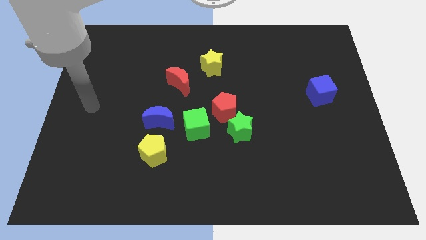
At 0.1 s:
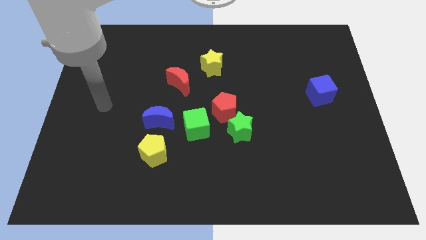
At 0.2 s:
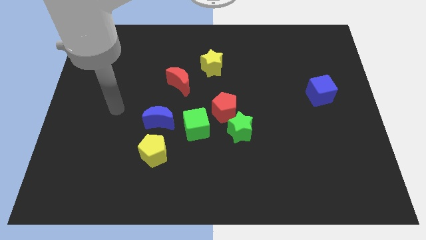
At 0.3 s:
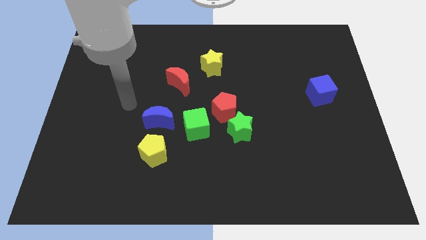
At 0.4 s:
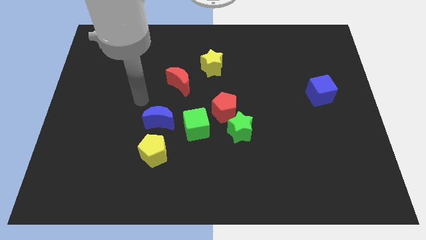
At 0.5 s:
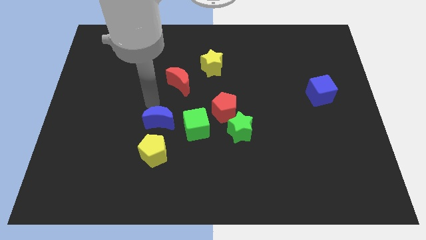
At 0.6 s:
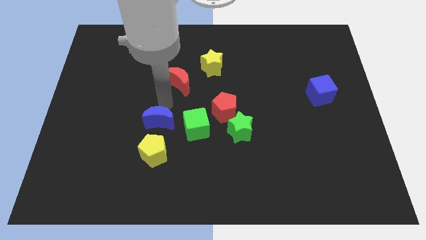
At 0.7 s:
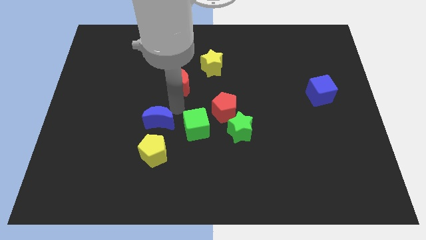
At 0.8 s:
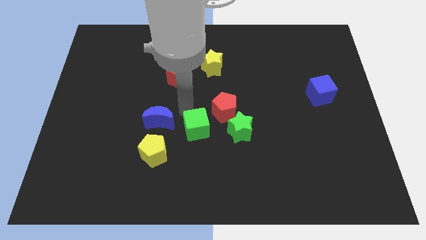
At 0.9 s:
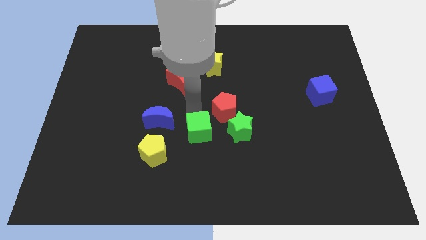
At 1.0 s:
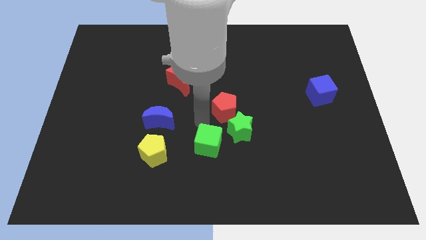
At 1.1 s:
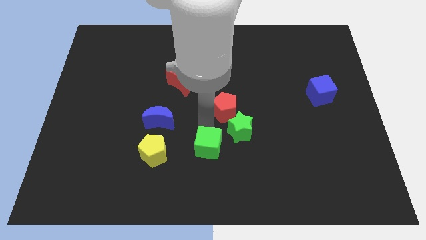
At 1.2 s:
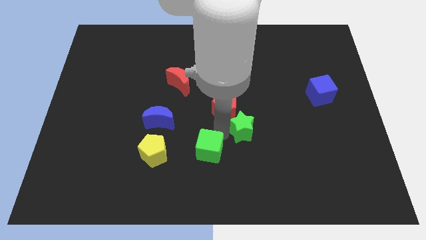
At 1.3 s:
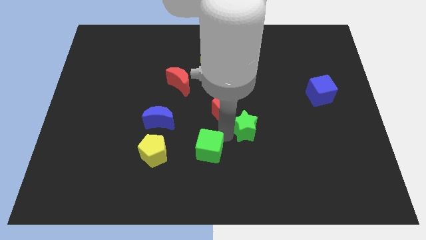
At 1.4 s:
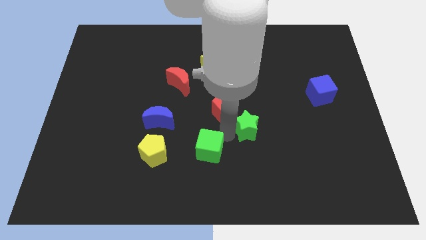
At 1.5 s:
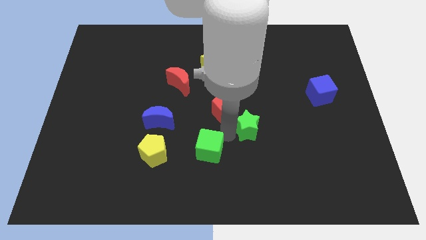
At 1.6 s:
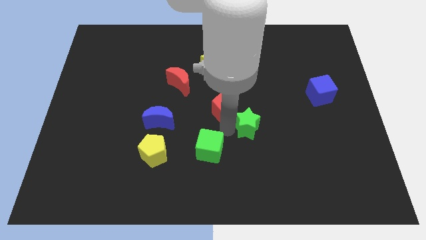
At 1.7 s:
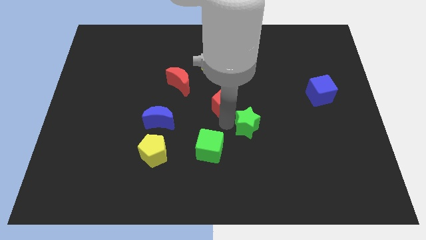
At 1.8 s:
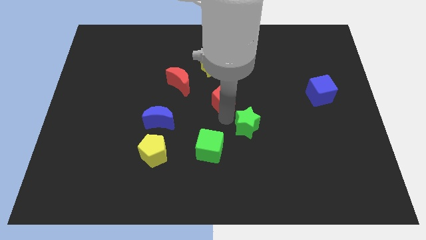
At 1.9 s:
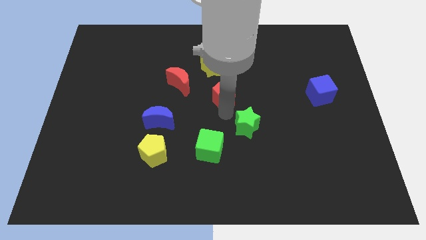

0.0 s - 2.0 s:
pull the red pentagon apart from the green star and green cube

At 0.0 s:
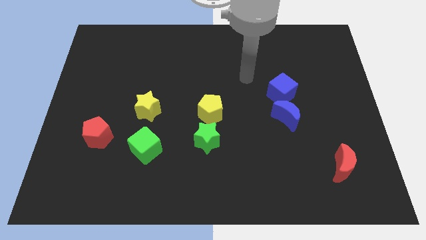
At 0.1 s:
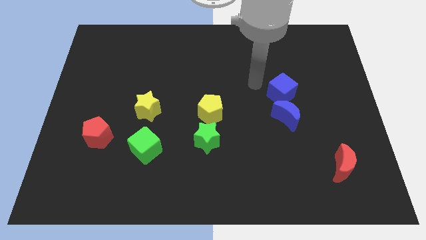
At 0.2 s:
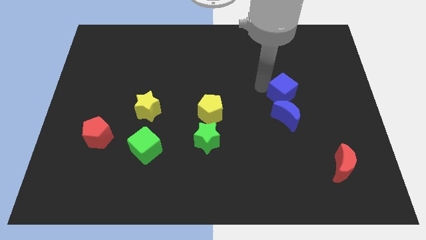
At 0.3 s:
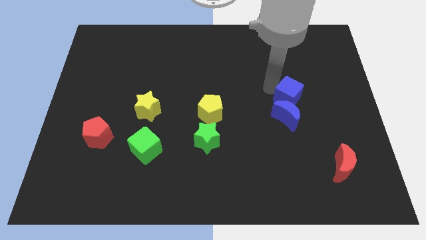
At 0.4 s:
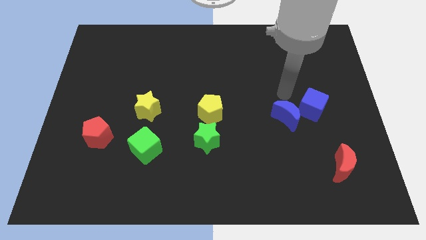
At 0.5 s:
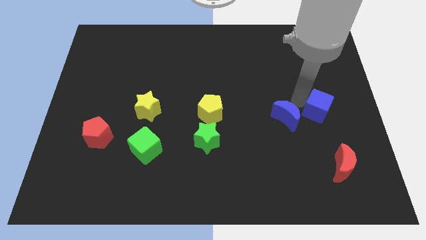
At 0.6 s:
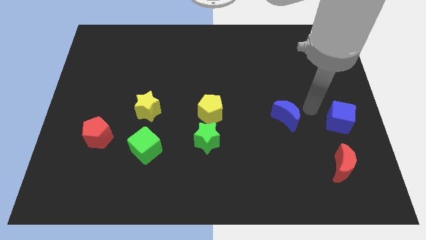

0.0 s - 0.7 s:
separate the blue moon from the blue cube

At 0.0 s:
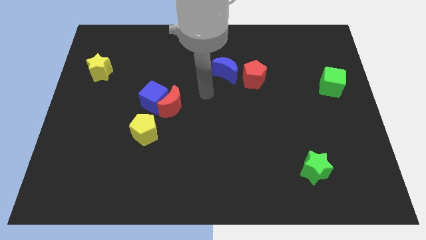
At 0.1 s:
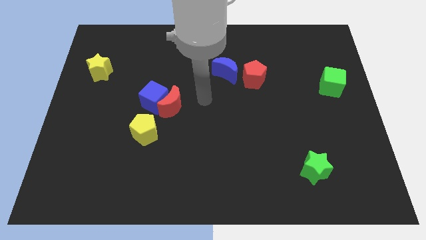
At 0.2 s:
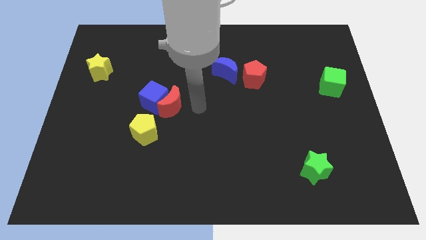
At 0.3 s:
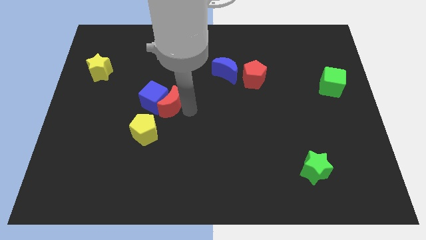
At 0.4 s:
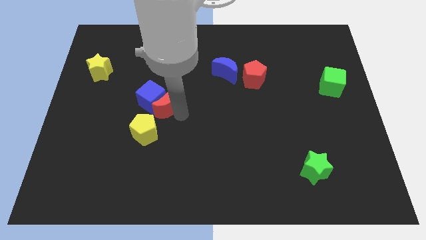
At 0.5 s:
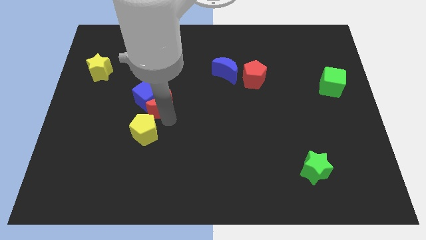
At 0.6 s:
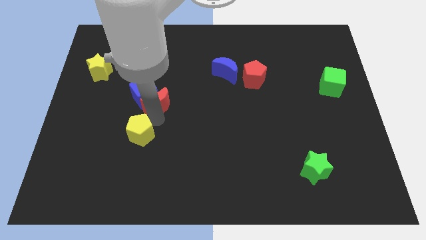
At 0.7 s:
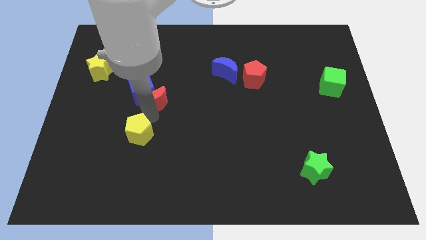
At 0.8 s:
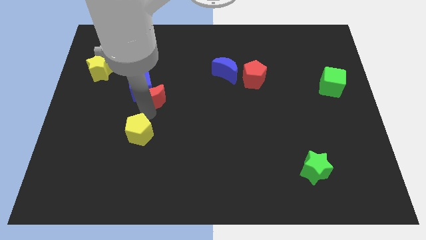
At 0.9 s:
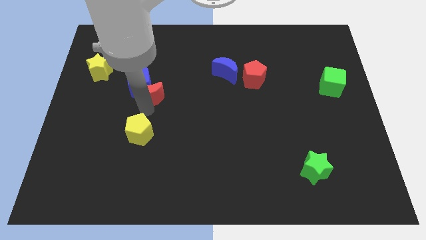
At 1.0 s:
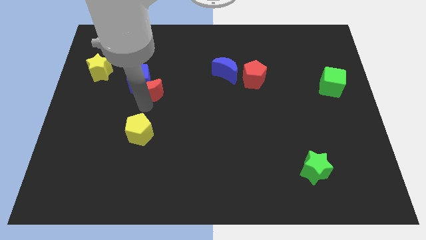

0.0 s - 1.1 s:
pull the blue cube apart from the red moon and yellow pentagon

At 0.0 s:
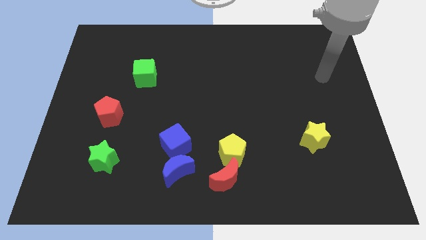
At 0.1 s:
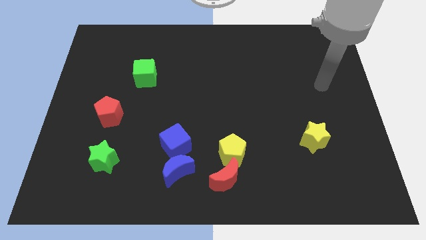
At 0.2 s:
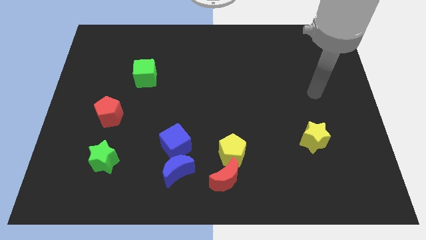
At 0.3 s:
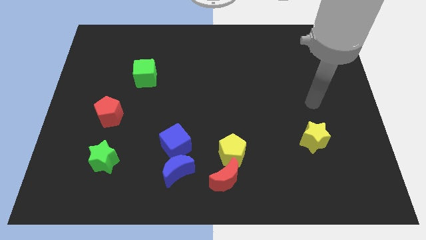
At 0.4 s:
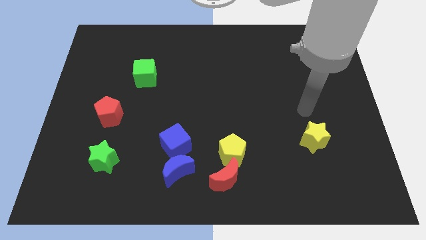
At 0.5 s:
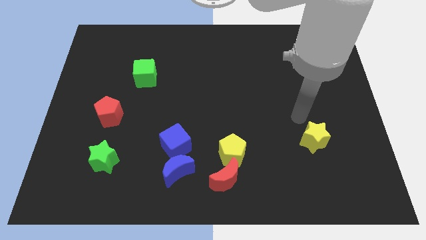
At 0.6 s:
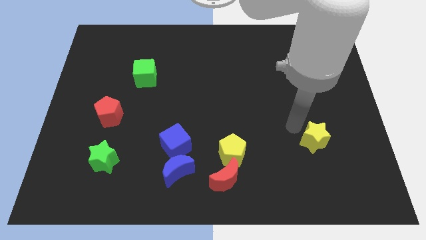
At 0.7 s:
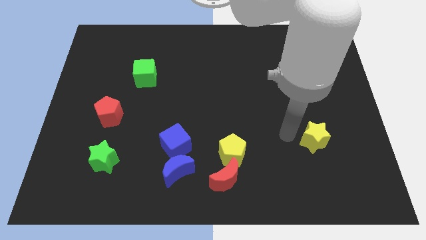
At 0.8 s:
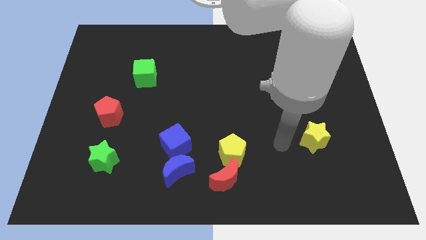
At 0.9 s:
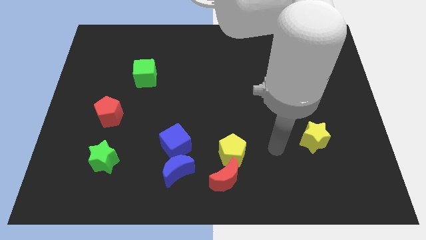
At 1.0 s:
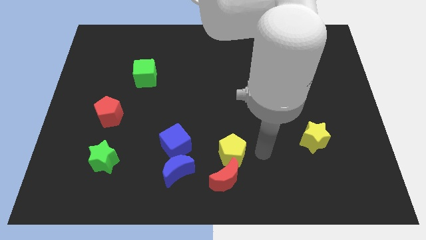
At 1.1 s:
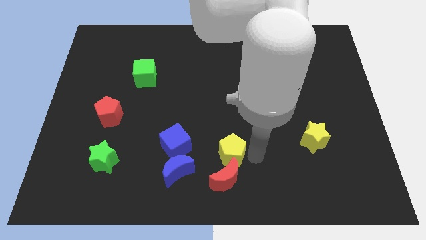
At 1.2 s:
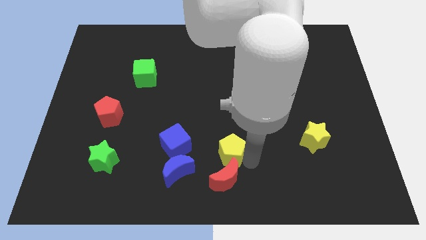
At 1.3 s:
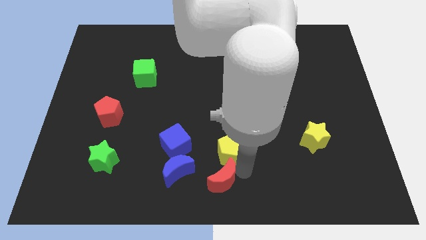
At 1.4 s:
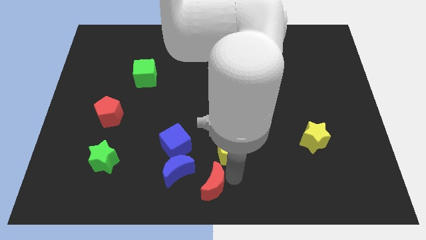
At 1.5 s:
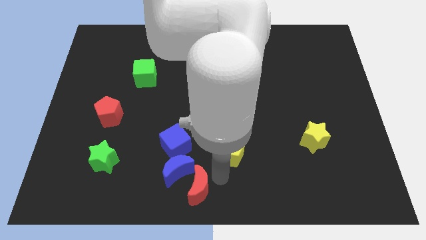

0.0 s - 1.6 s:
pull the yellow pentagon apart from the red moon

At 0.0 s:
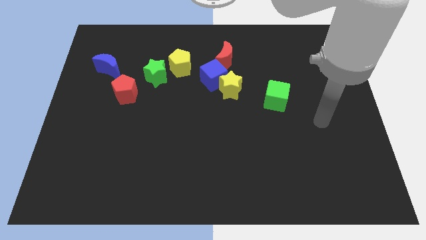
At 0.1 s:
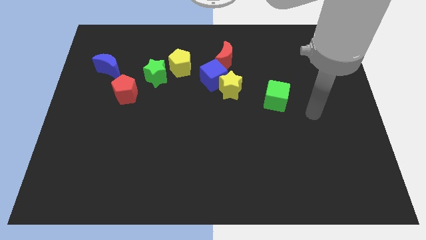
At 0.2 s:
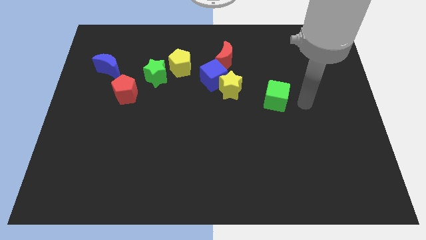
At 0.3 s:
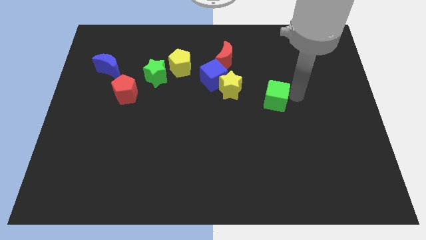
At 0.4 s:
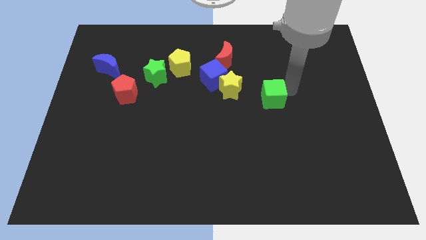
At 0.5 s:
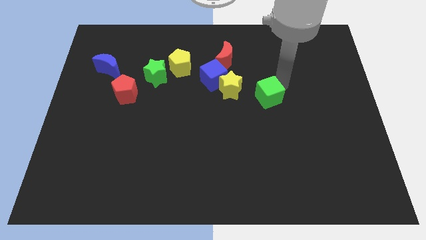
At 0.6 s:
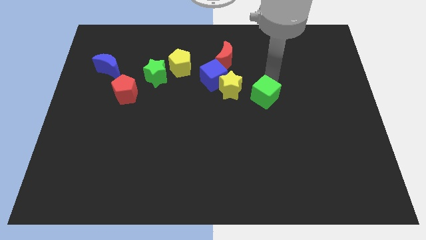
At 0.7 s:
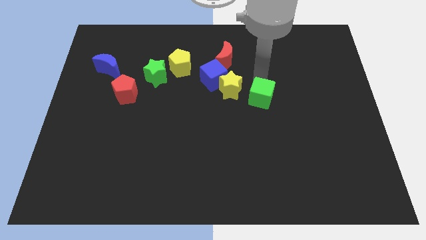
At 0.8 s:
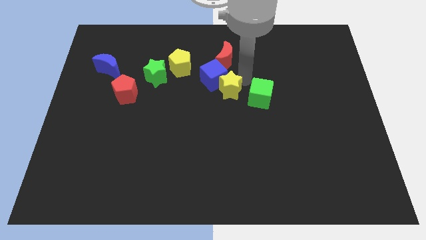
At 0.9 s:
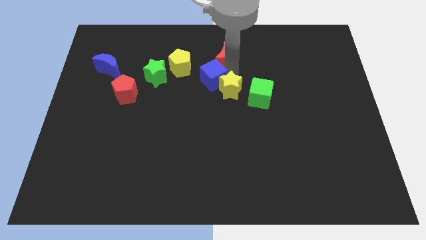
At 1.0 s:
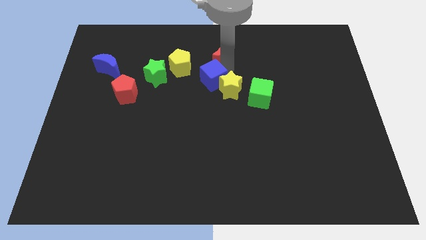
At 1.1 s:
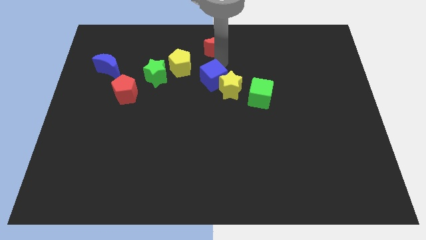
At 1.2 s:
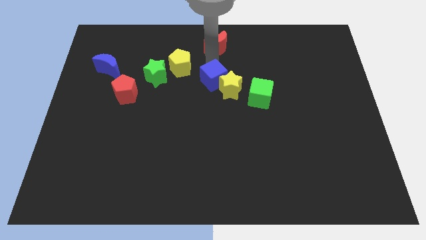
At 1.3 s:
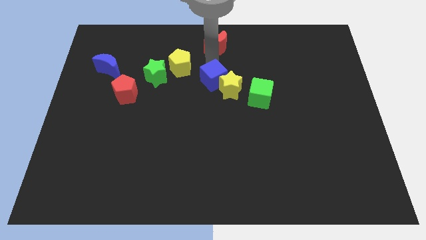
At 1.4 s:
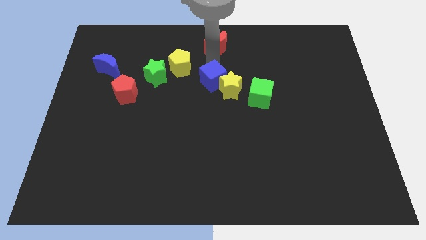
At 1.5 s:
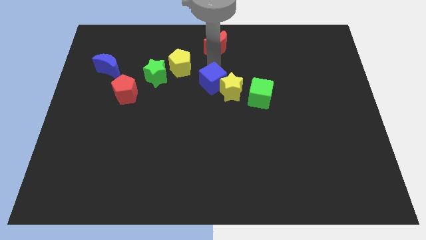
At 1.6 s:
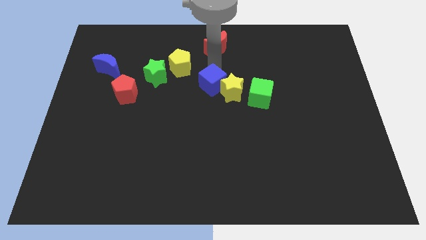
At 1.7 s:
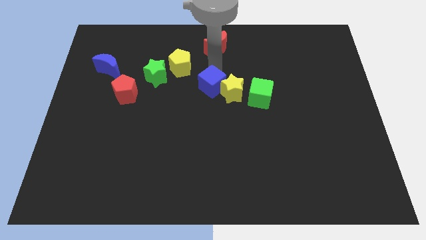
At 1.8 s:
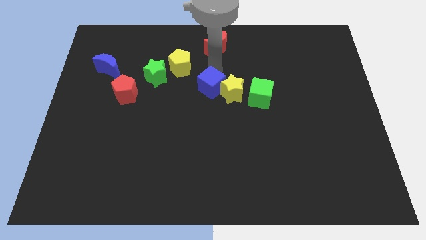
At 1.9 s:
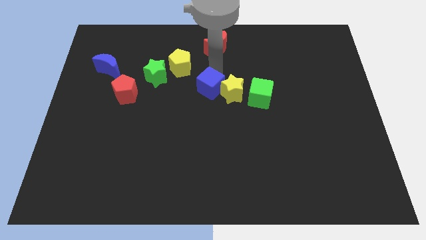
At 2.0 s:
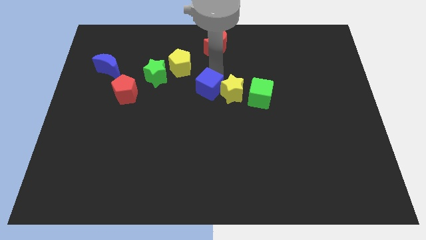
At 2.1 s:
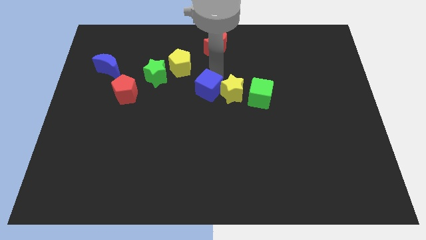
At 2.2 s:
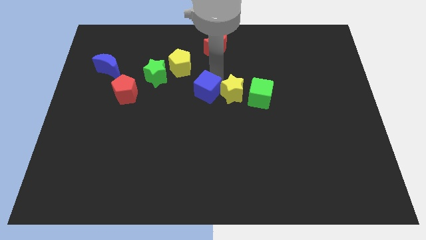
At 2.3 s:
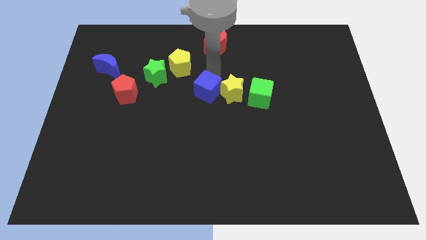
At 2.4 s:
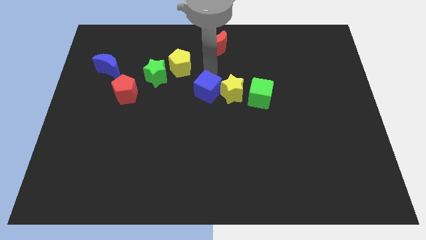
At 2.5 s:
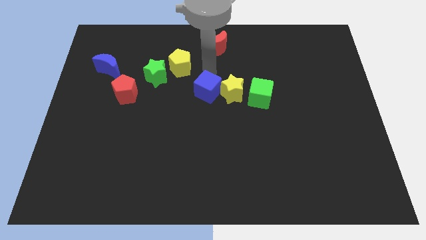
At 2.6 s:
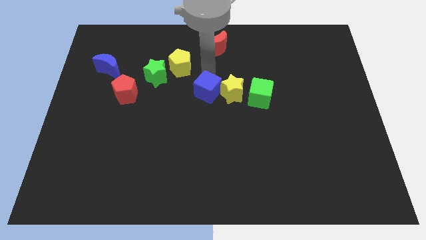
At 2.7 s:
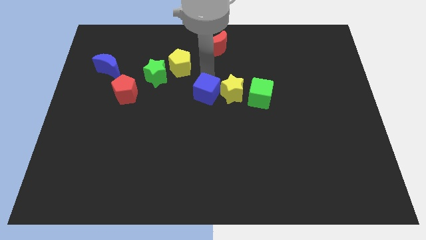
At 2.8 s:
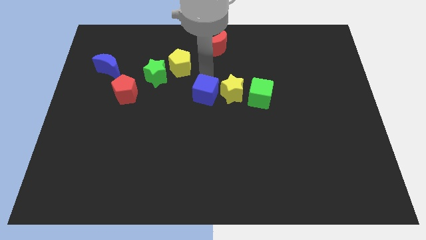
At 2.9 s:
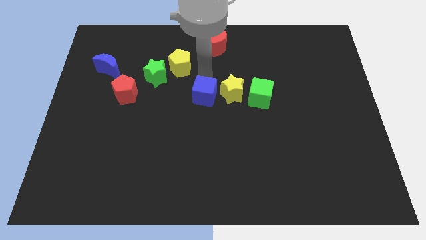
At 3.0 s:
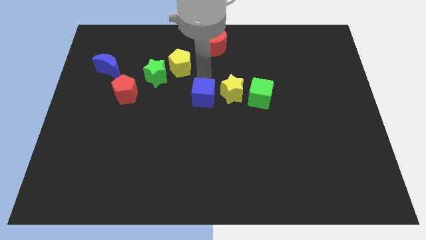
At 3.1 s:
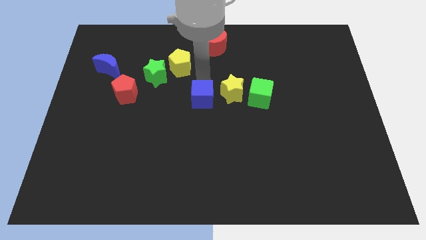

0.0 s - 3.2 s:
separate the blue cube from the yellow star, red moon, and yellow pentagon

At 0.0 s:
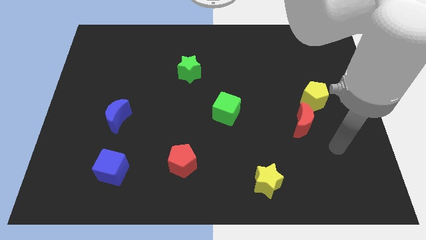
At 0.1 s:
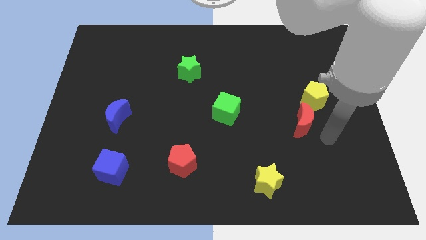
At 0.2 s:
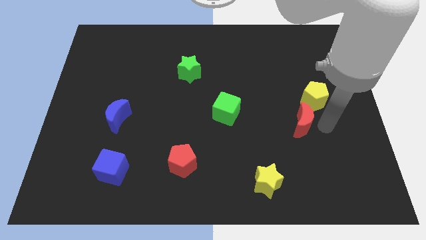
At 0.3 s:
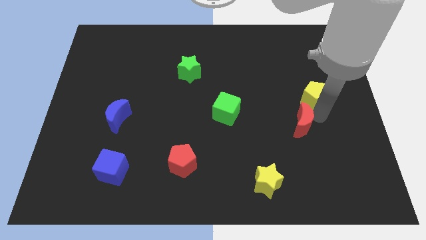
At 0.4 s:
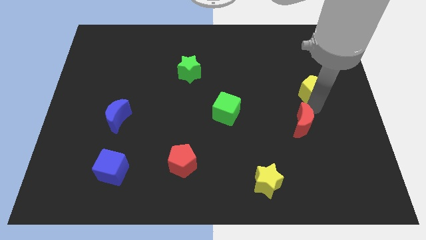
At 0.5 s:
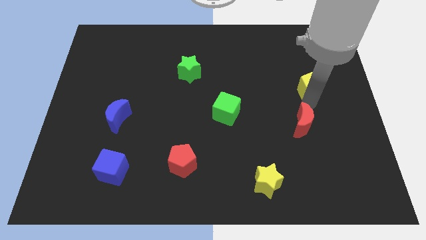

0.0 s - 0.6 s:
separate the red moon from the yellow pentagon

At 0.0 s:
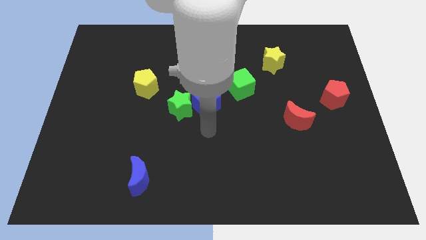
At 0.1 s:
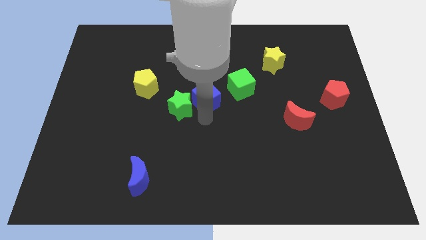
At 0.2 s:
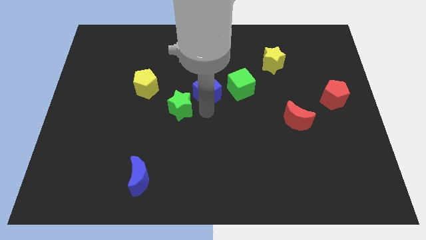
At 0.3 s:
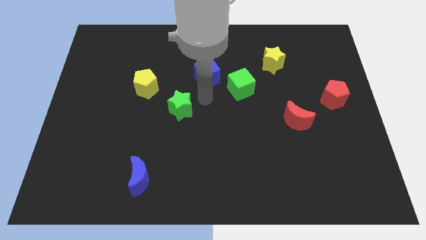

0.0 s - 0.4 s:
separate the green star from the blue cube
